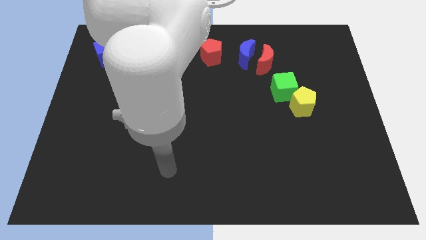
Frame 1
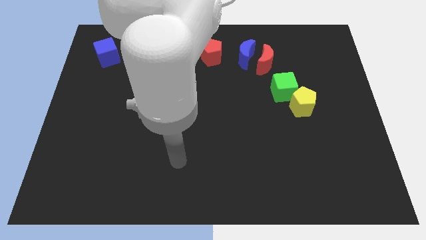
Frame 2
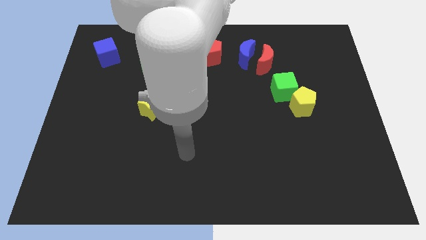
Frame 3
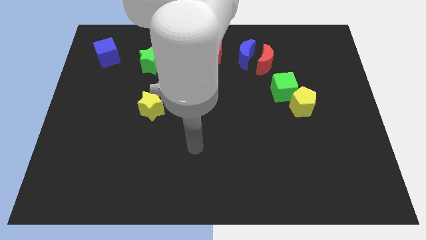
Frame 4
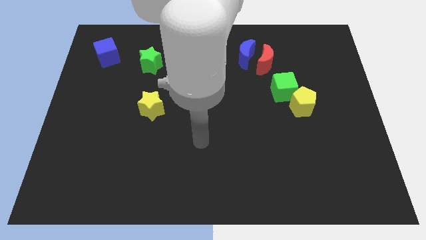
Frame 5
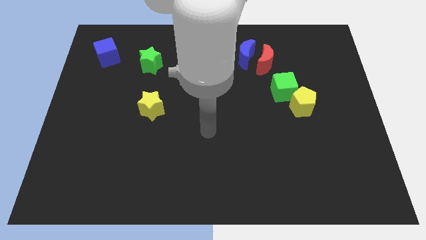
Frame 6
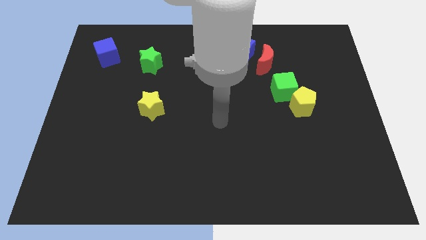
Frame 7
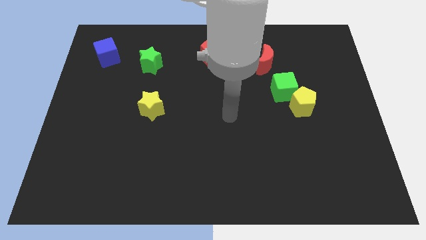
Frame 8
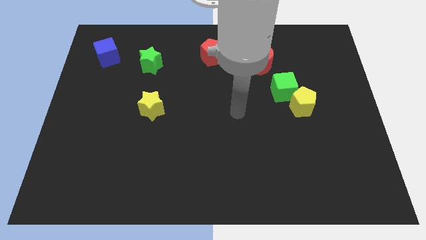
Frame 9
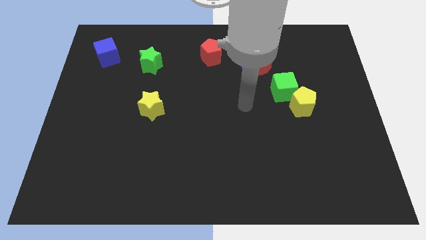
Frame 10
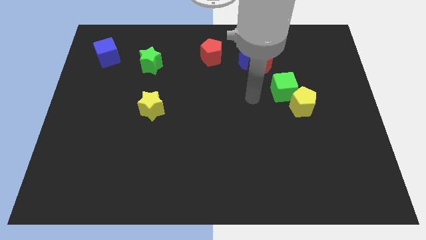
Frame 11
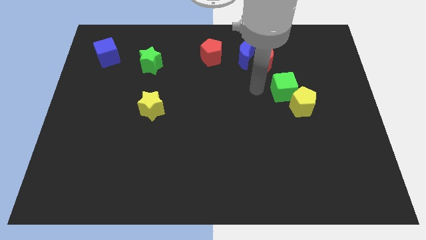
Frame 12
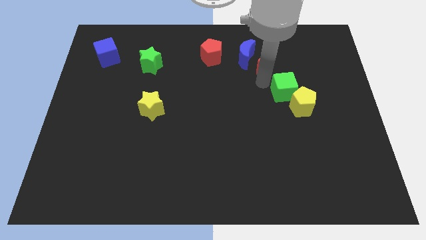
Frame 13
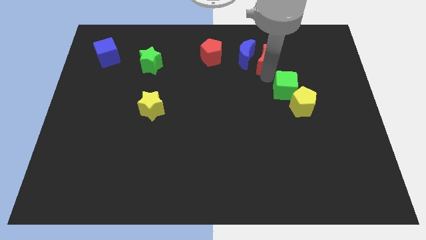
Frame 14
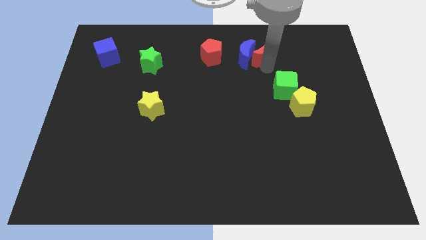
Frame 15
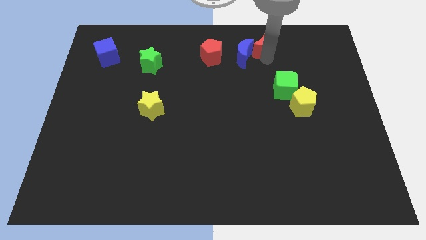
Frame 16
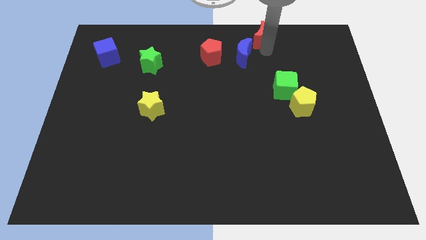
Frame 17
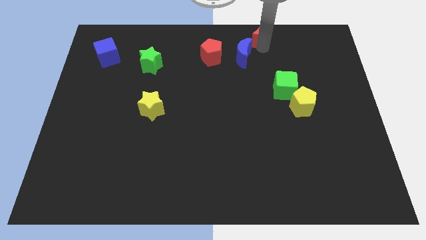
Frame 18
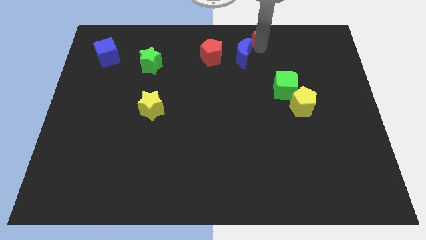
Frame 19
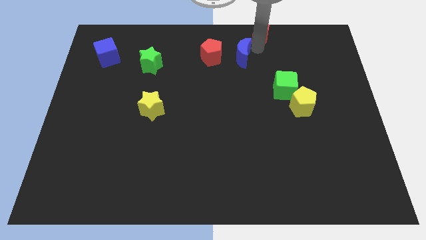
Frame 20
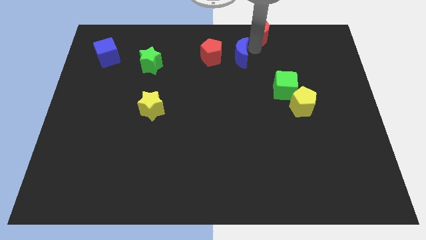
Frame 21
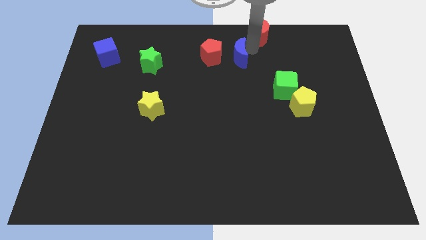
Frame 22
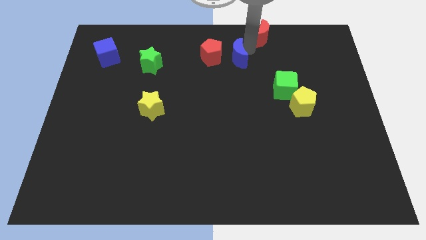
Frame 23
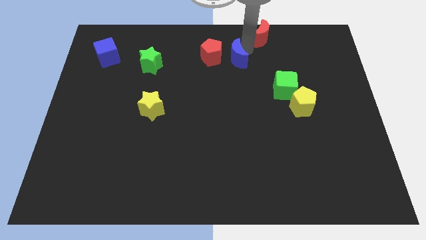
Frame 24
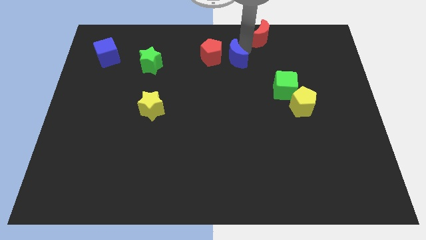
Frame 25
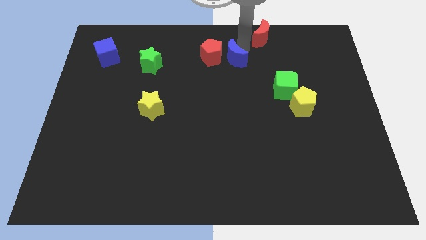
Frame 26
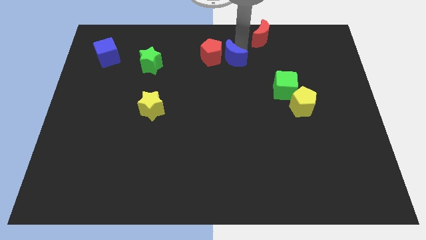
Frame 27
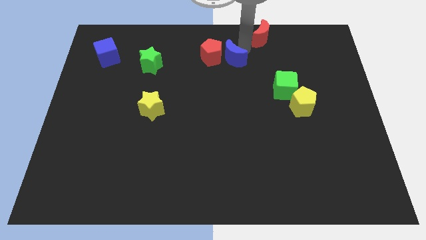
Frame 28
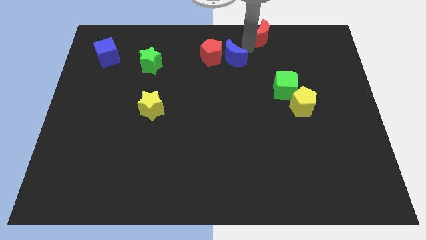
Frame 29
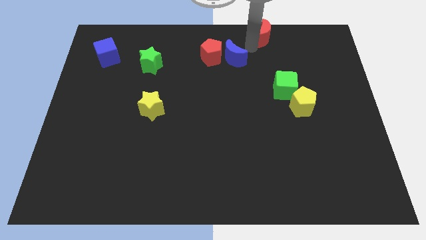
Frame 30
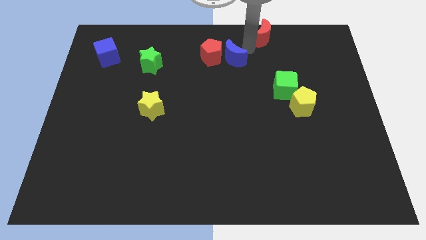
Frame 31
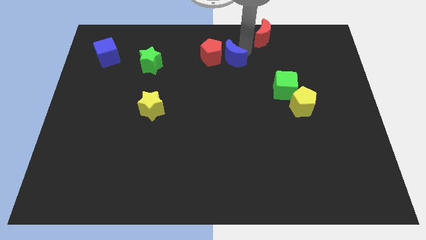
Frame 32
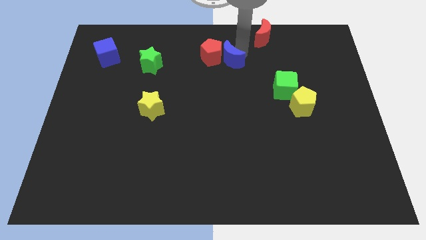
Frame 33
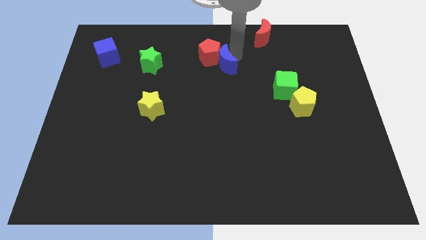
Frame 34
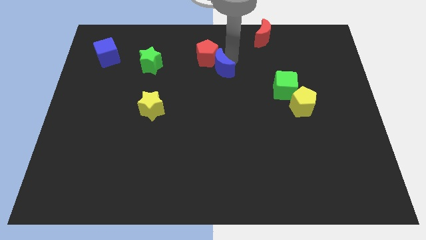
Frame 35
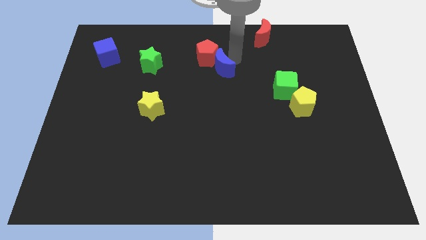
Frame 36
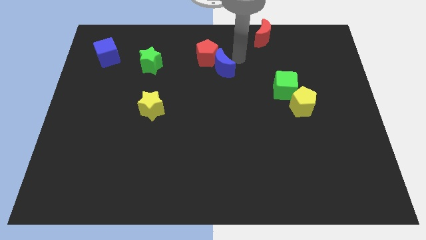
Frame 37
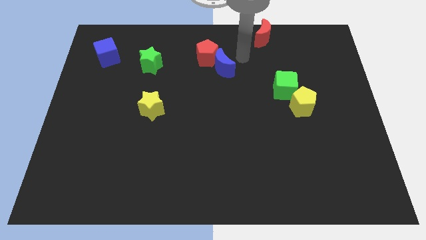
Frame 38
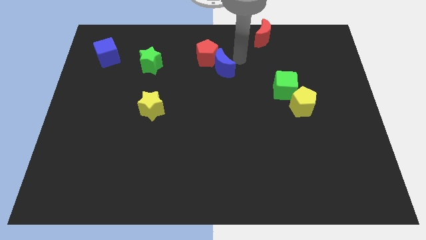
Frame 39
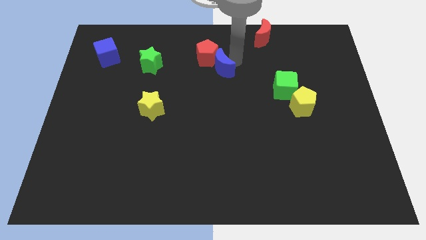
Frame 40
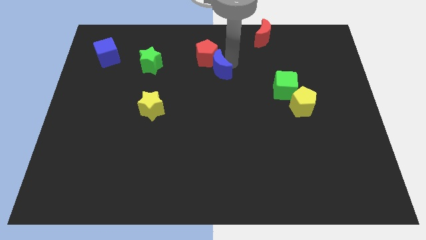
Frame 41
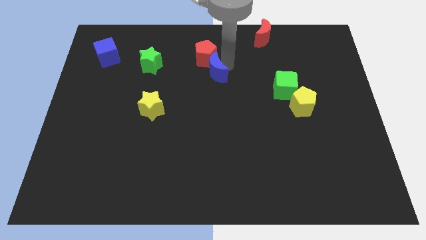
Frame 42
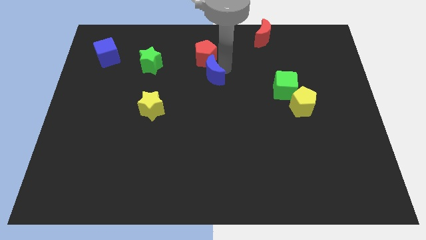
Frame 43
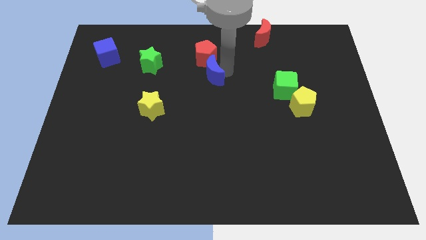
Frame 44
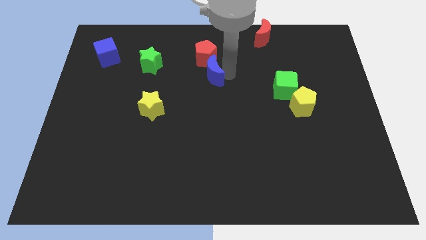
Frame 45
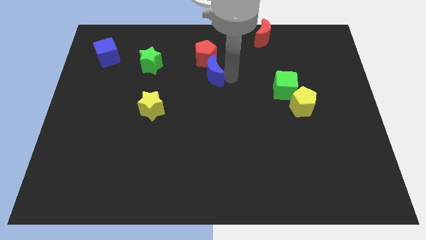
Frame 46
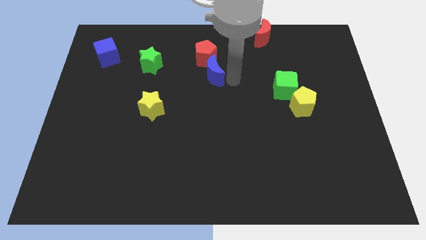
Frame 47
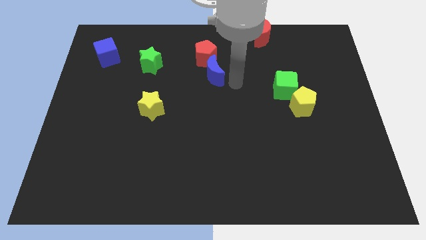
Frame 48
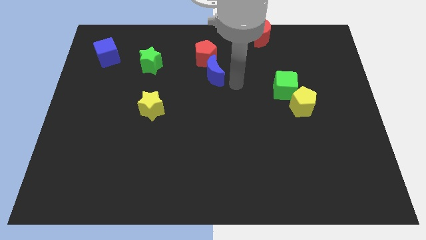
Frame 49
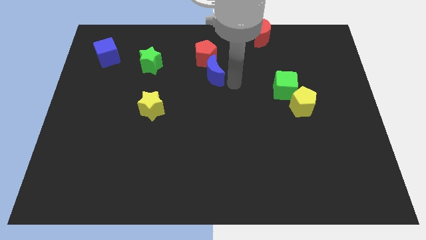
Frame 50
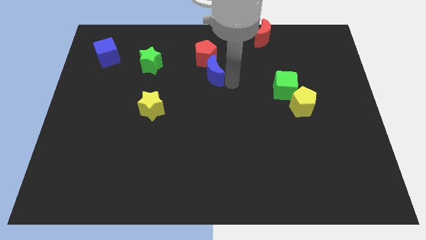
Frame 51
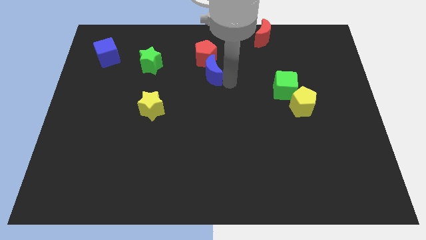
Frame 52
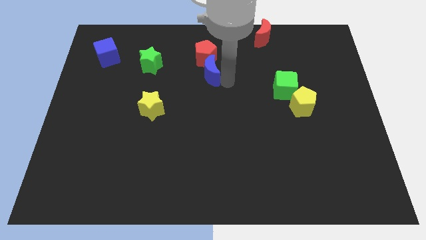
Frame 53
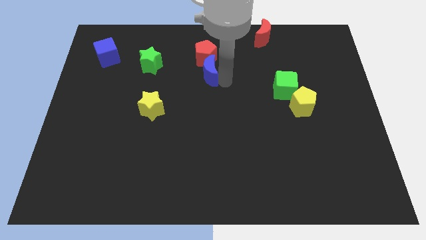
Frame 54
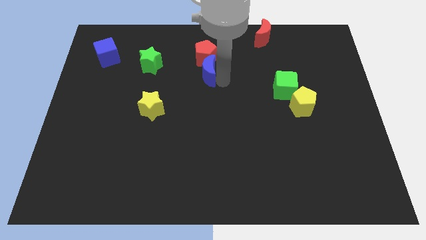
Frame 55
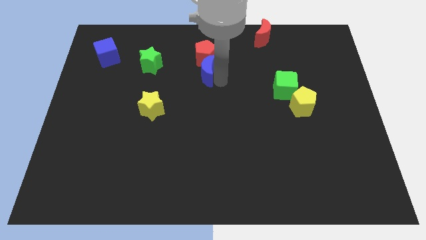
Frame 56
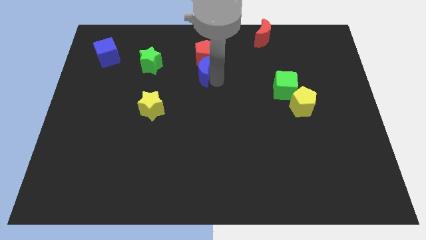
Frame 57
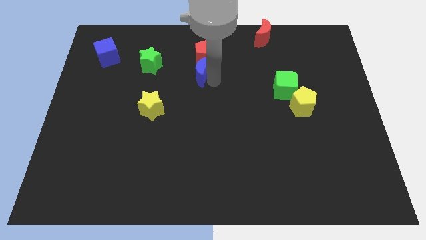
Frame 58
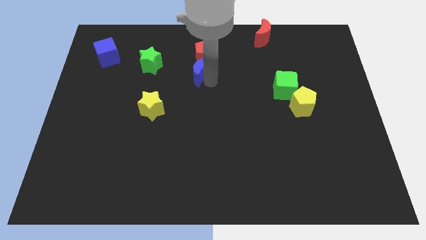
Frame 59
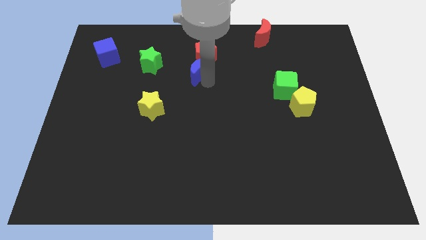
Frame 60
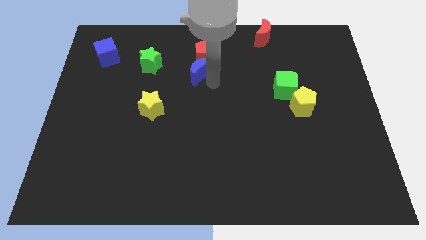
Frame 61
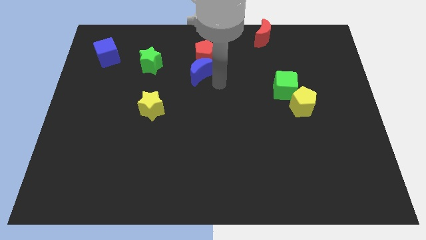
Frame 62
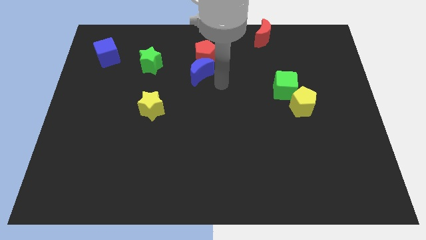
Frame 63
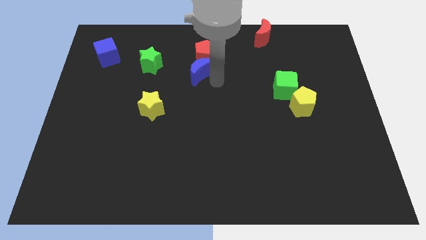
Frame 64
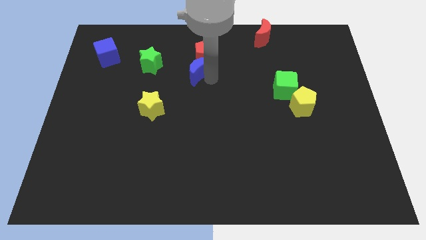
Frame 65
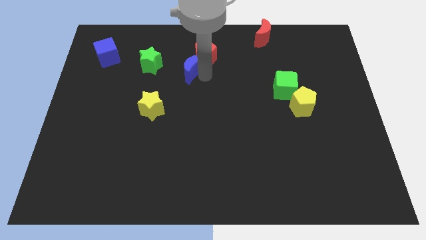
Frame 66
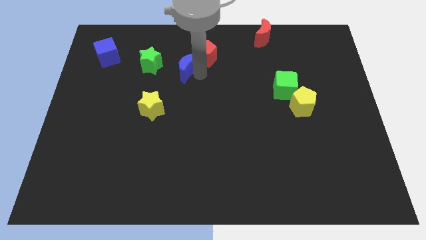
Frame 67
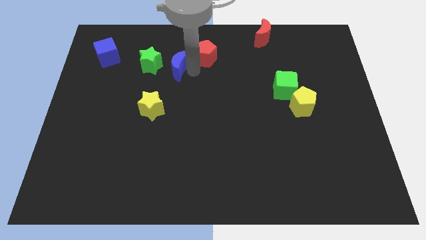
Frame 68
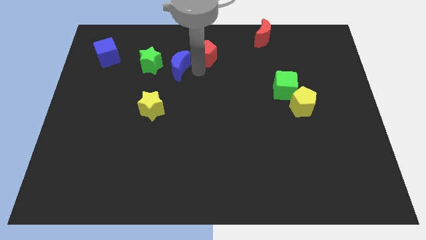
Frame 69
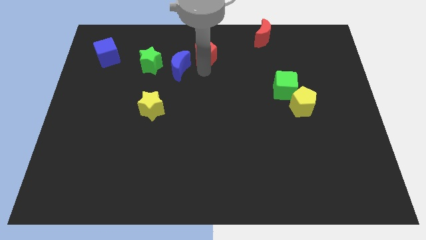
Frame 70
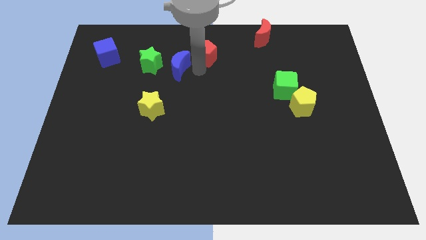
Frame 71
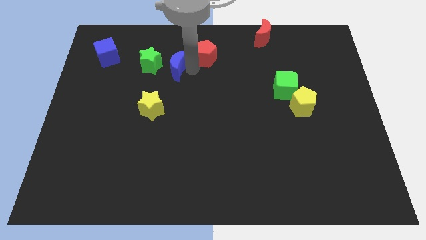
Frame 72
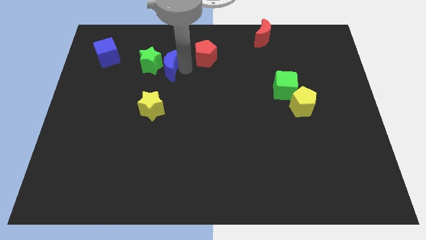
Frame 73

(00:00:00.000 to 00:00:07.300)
push the blue moon close to the green star
